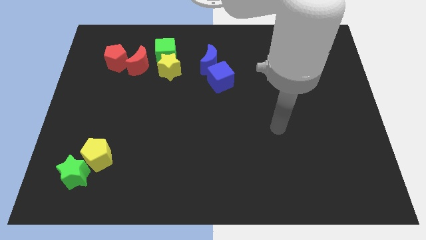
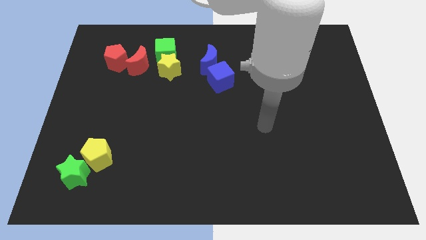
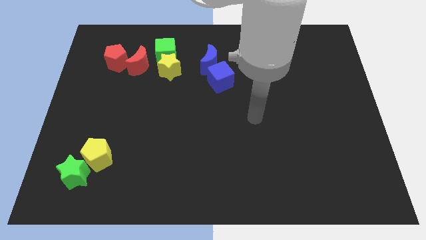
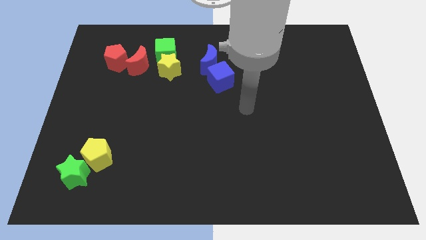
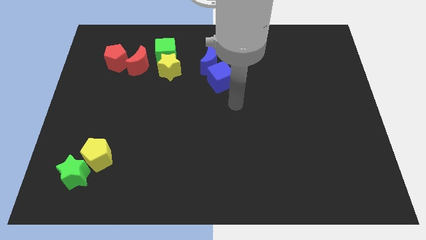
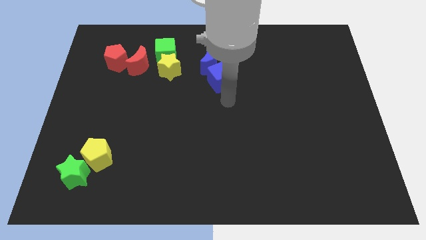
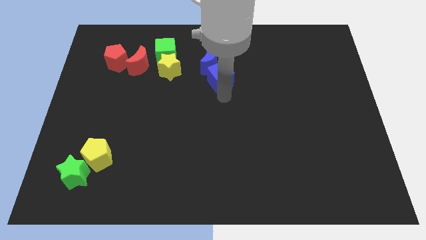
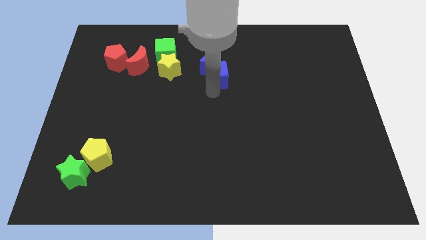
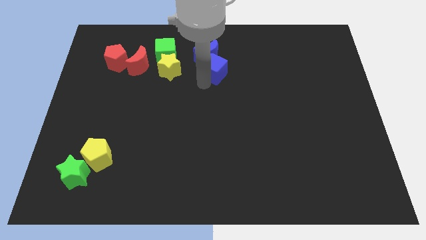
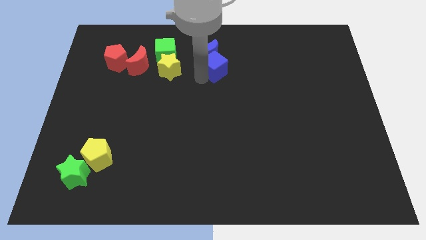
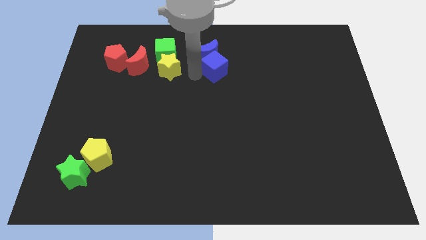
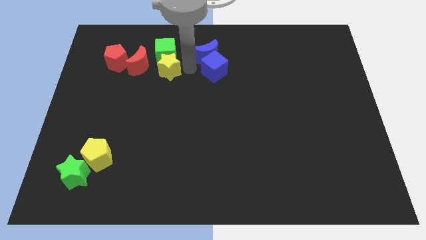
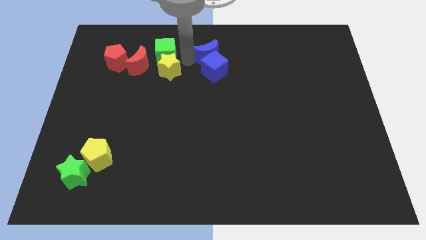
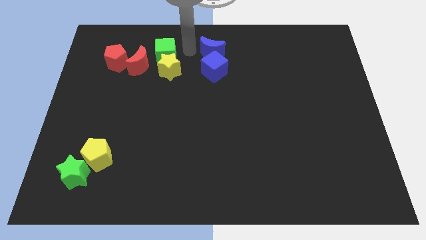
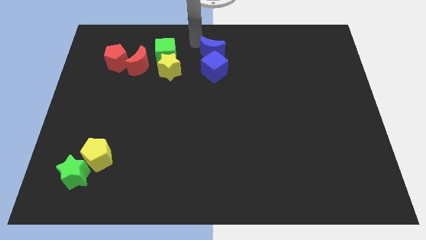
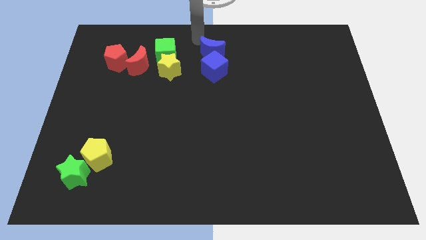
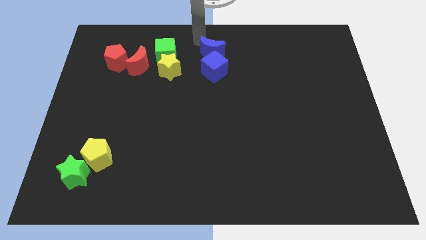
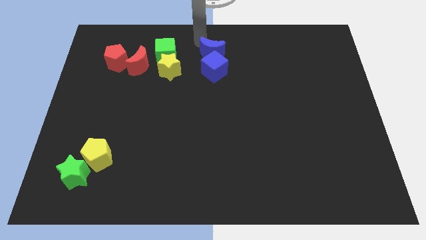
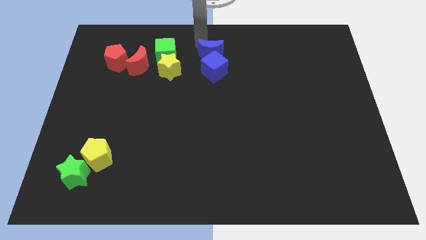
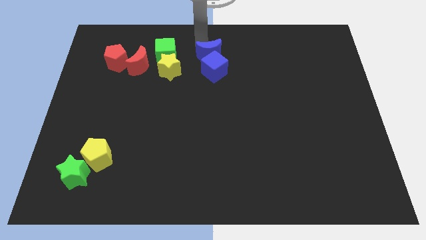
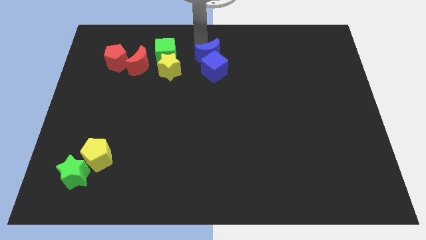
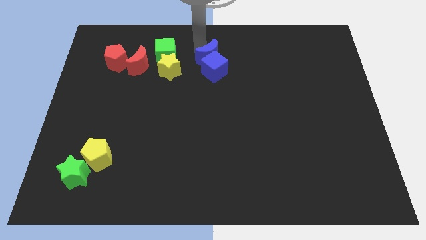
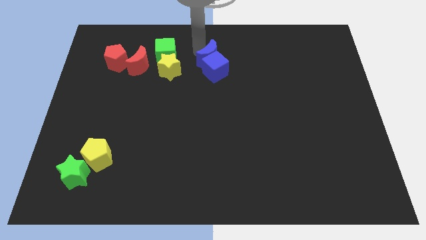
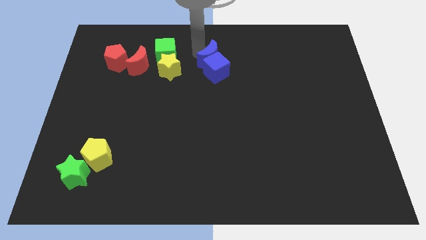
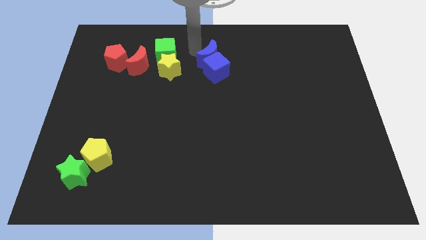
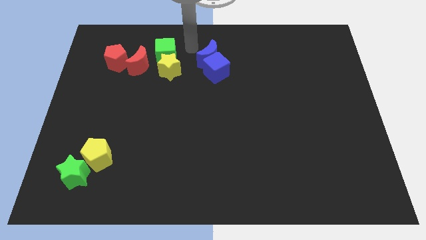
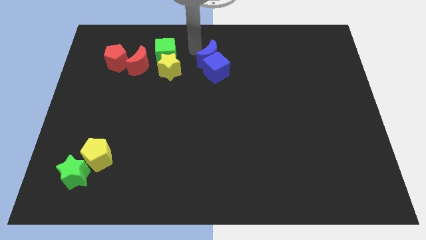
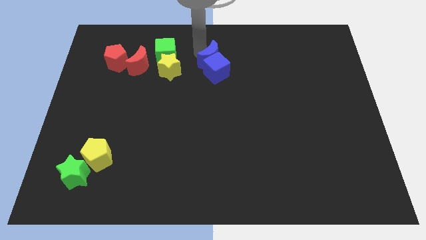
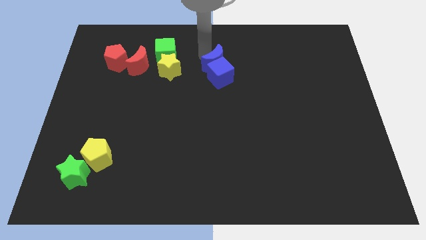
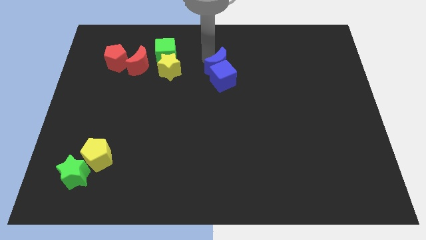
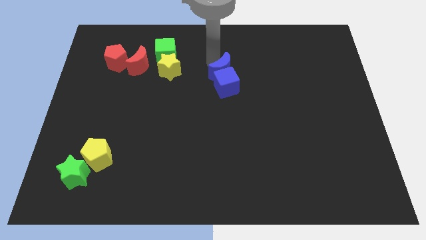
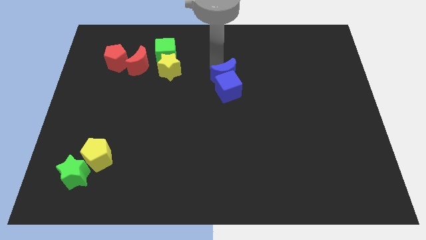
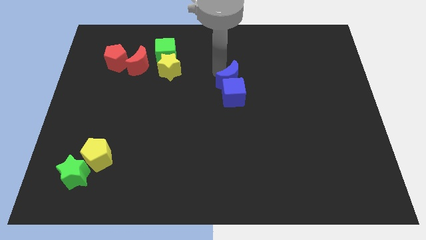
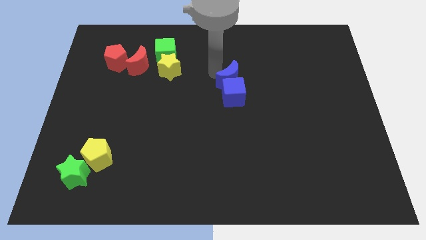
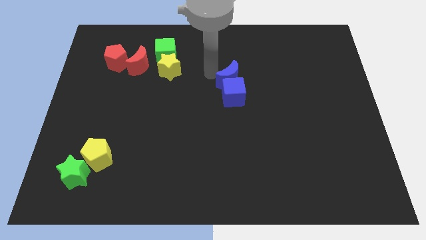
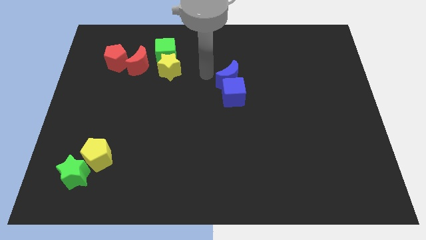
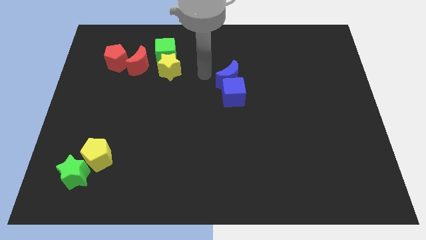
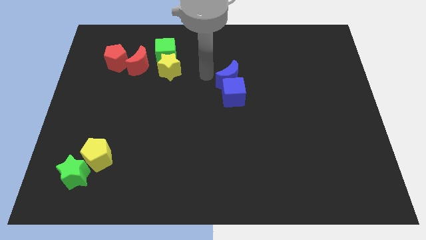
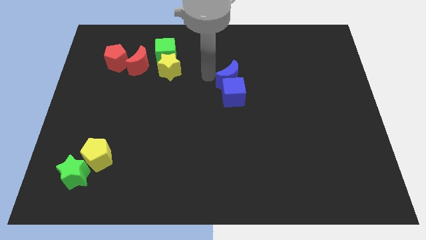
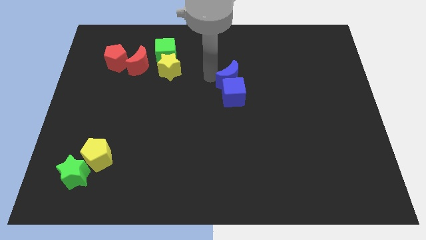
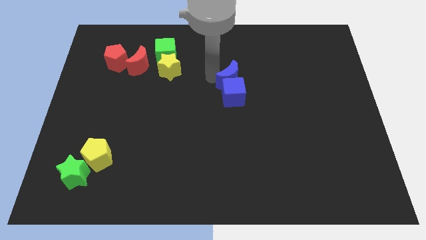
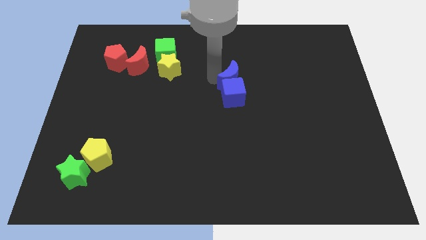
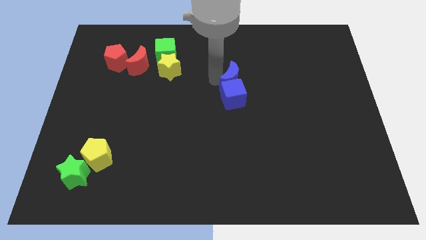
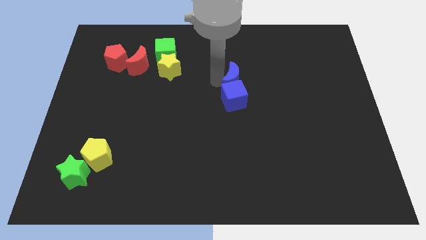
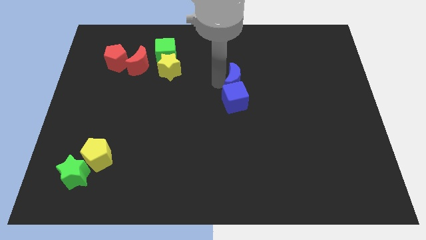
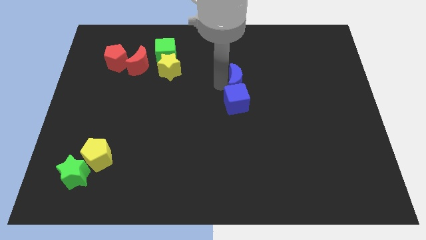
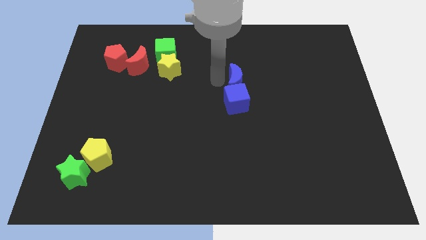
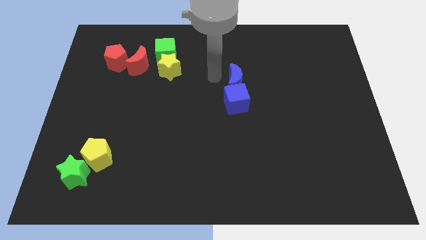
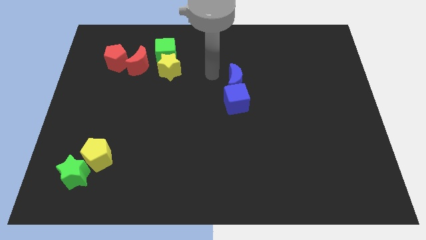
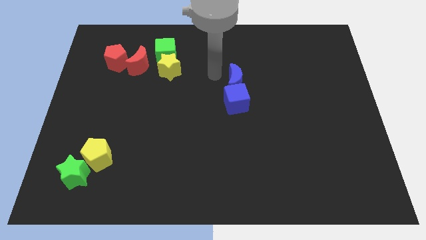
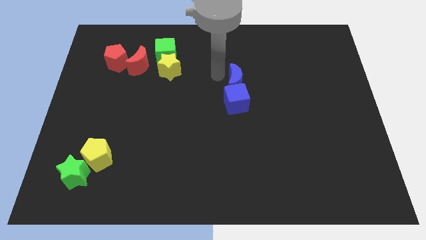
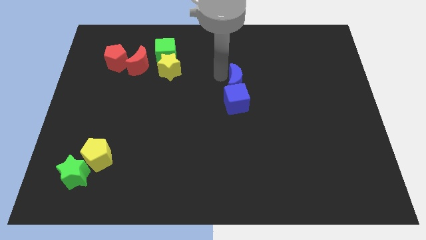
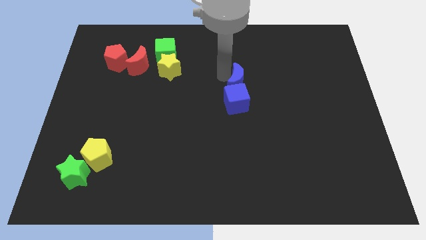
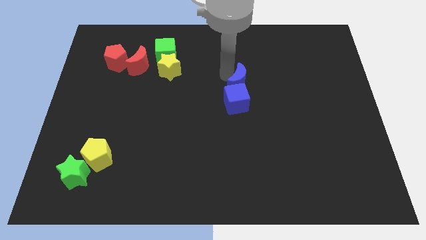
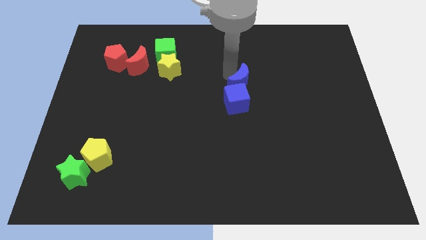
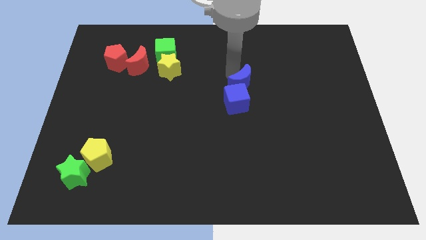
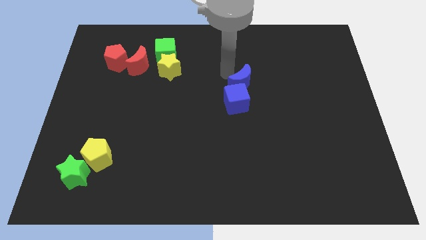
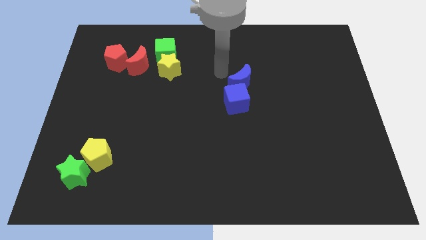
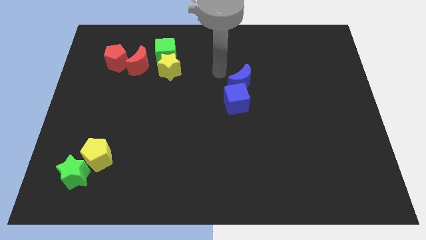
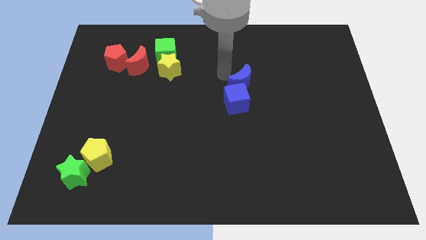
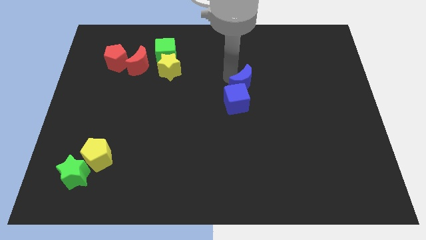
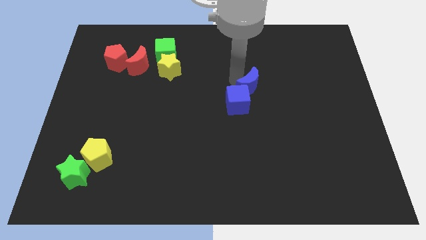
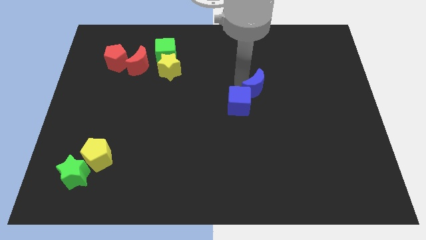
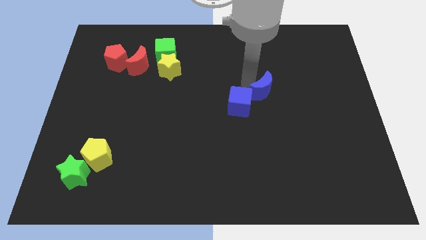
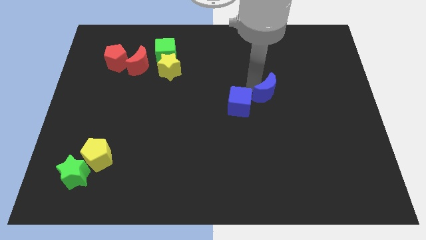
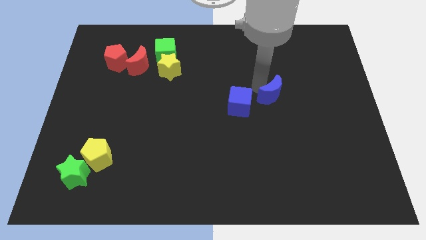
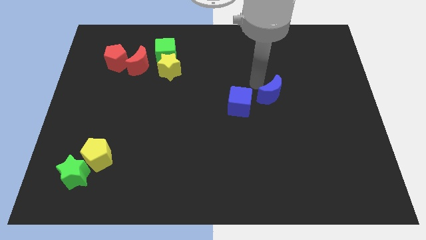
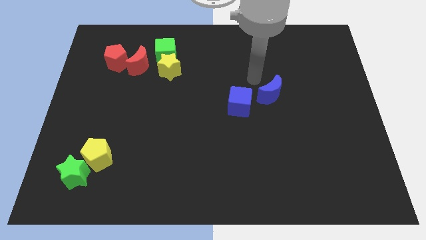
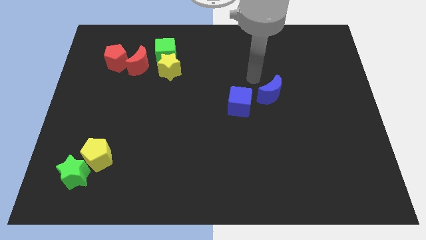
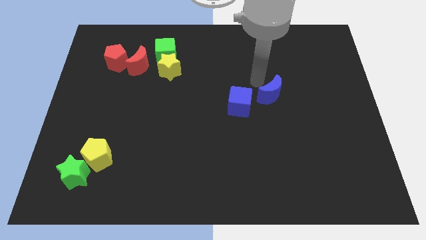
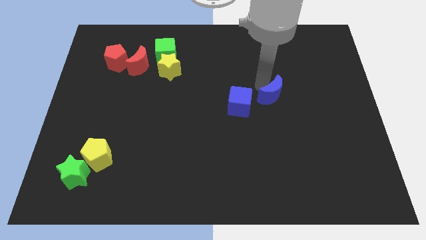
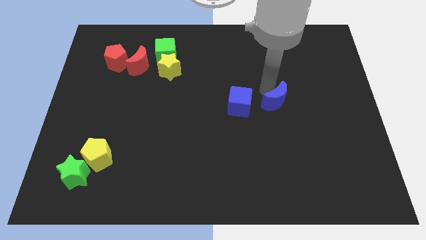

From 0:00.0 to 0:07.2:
move the blue moon downwards and right

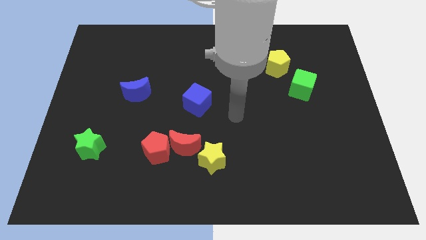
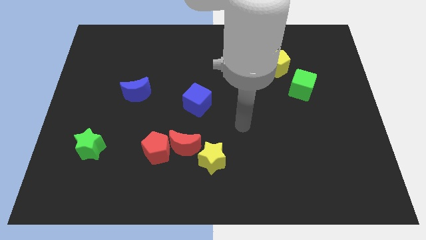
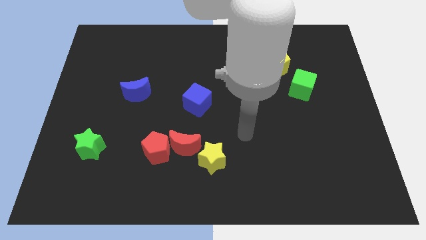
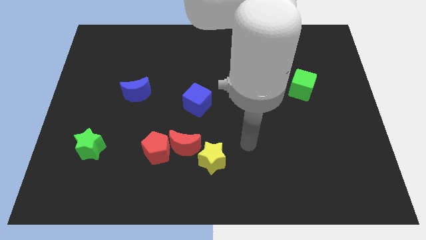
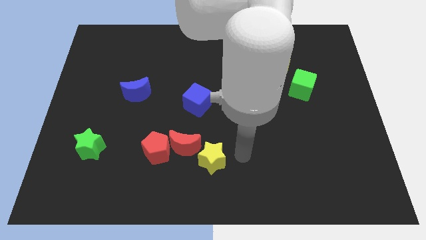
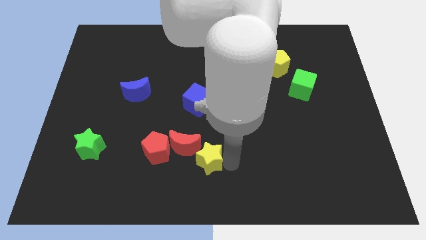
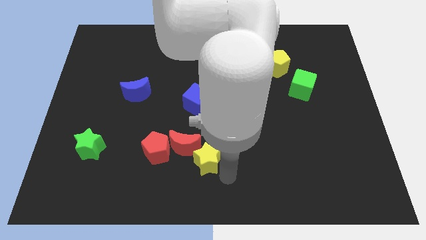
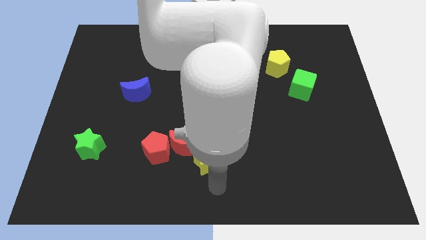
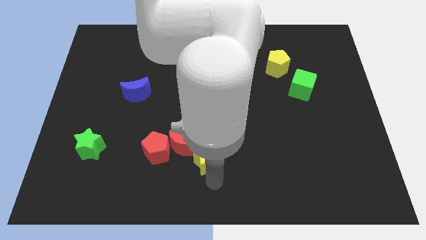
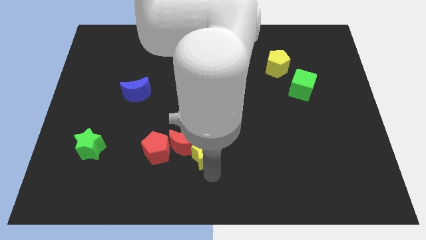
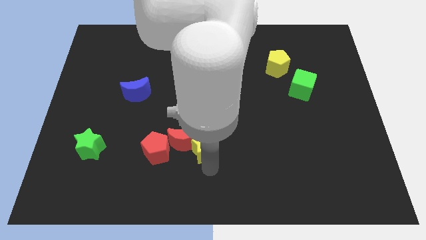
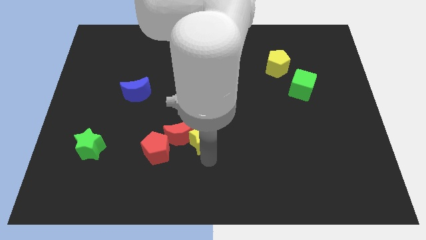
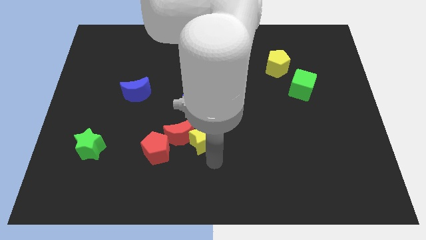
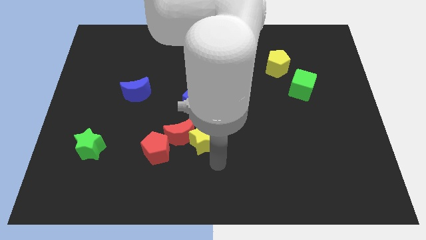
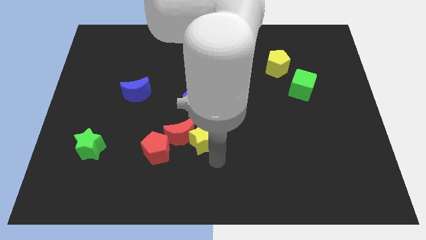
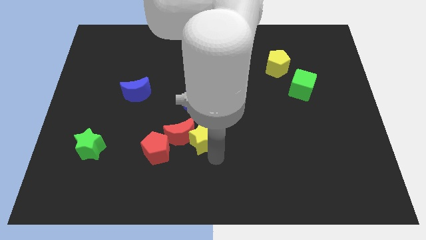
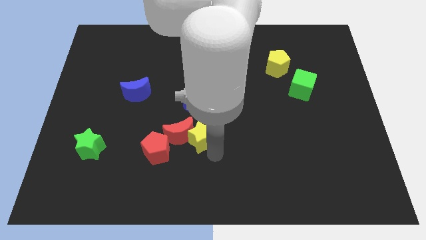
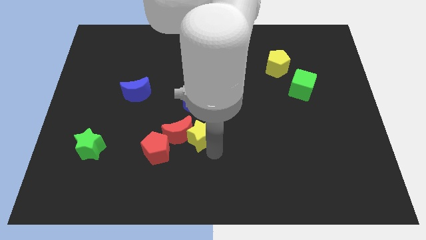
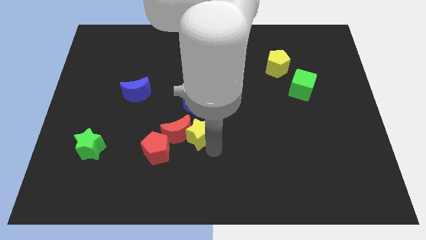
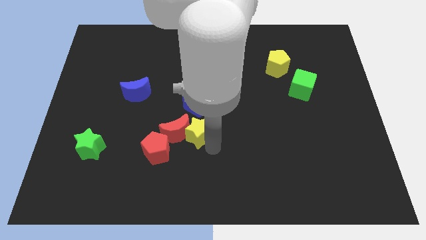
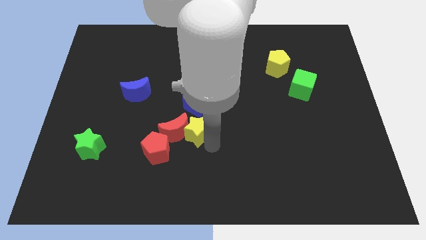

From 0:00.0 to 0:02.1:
move the yellow star somewhat up and then left
